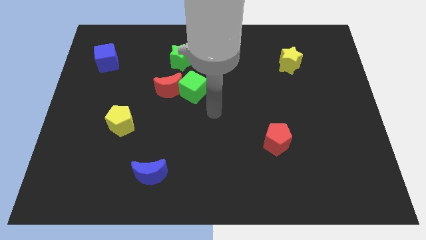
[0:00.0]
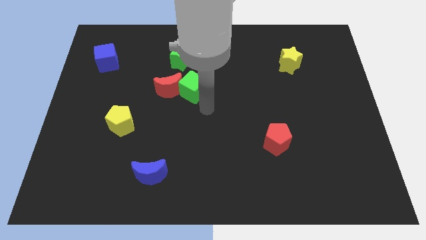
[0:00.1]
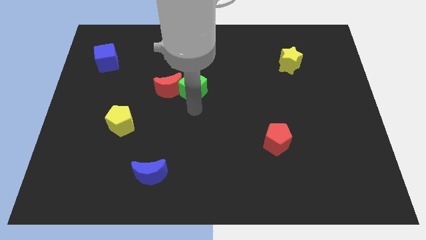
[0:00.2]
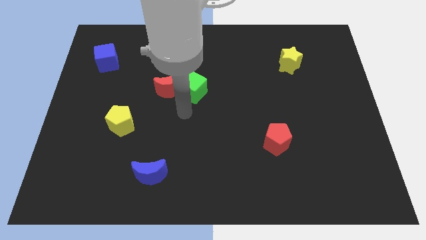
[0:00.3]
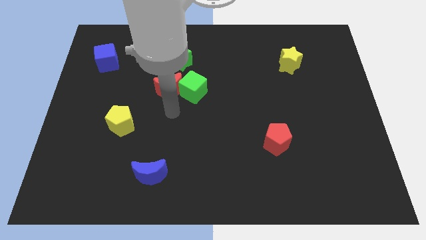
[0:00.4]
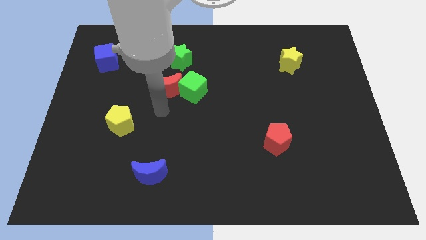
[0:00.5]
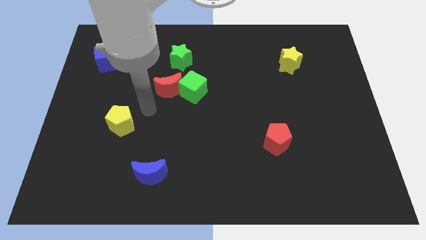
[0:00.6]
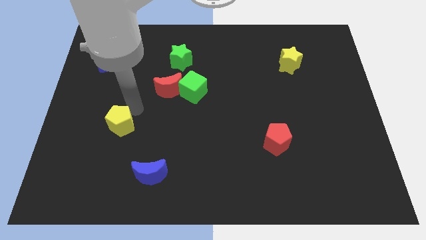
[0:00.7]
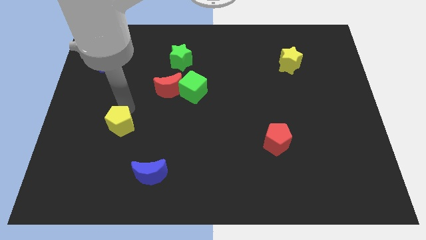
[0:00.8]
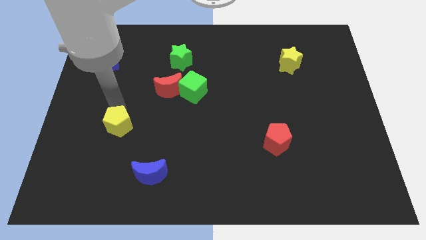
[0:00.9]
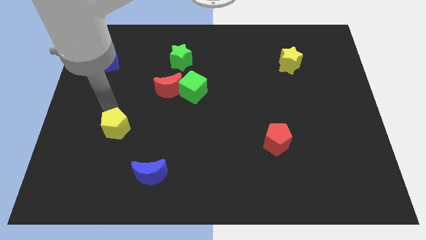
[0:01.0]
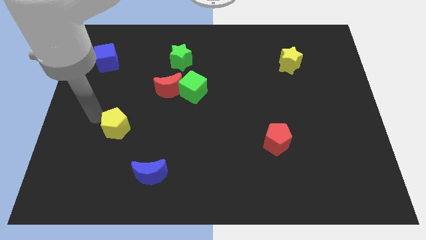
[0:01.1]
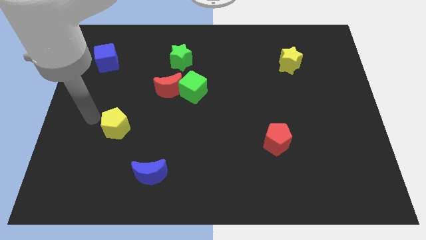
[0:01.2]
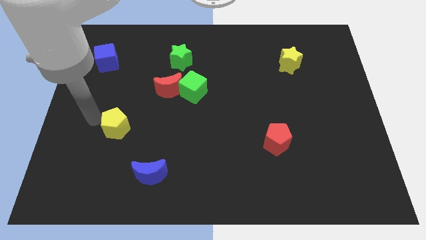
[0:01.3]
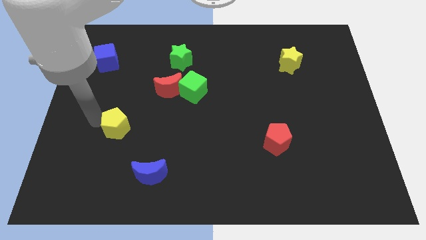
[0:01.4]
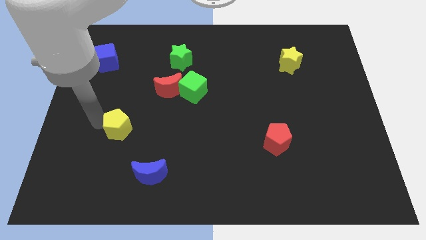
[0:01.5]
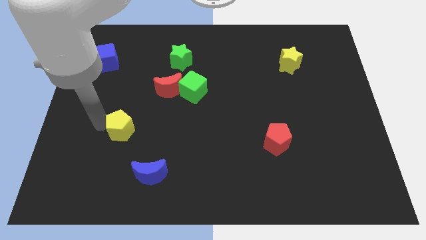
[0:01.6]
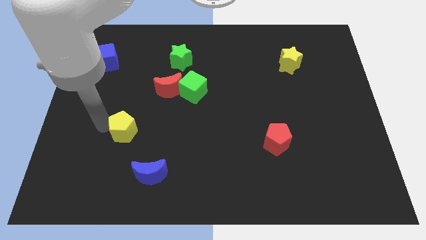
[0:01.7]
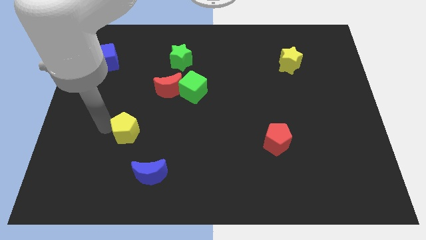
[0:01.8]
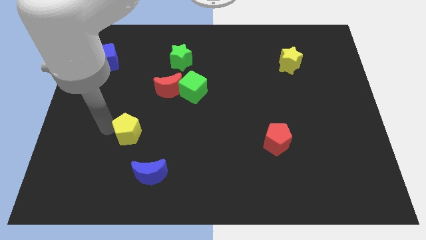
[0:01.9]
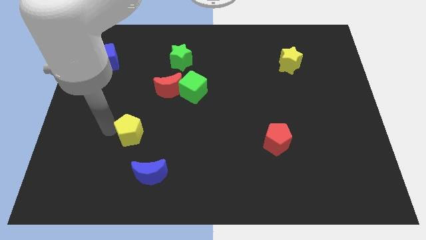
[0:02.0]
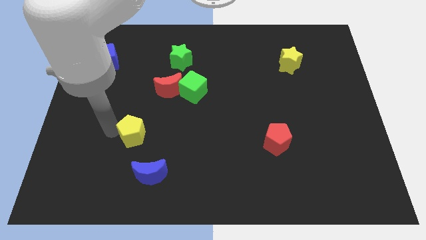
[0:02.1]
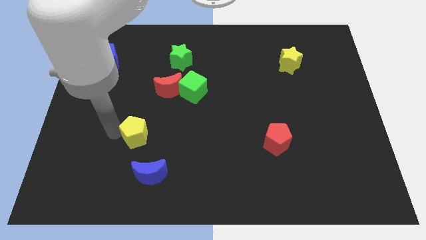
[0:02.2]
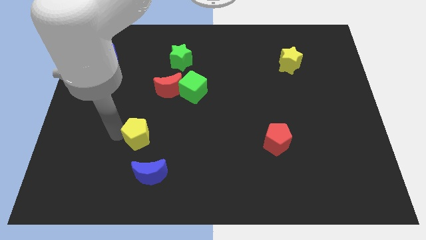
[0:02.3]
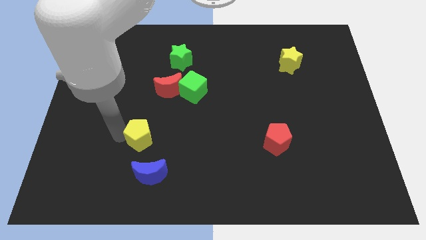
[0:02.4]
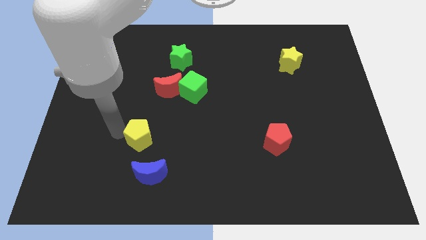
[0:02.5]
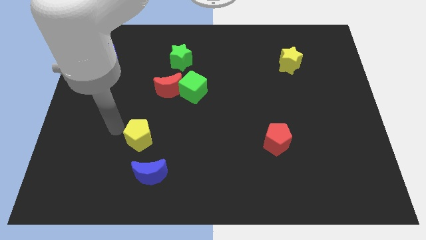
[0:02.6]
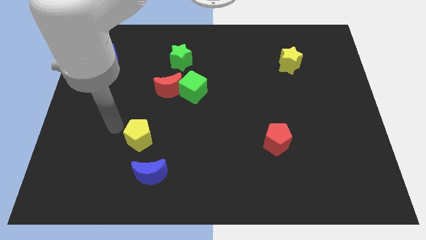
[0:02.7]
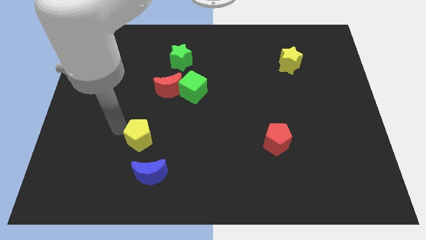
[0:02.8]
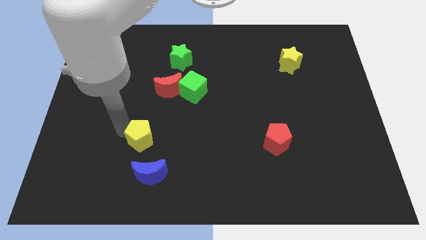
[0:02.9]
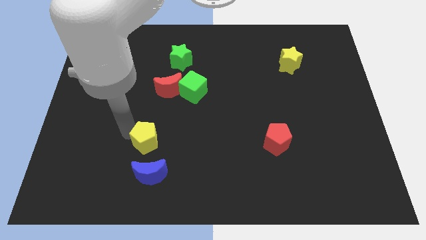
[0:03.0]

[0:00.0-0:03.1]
move the yellow pentagon down and to the right diagonally somewhat

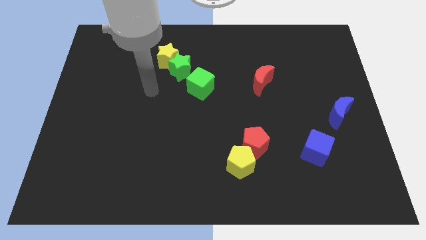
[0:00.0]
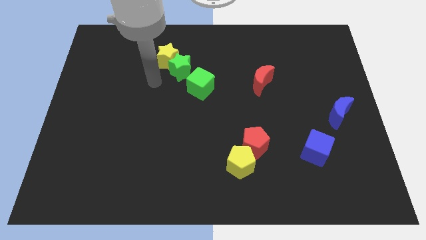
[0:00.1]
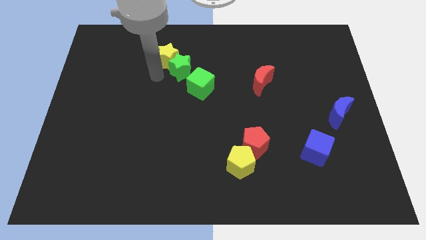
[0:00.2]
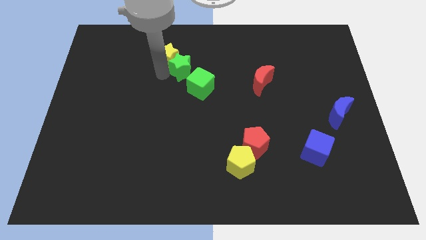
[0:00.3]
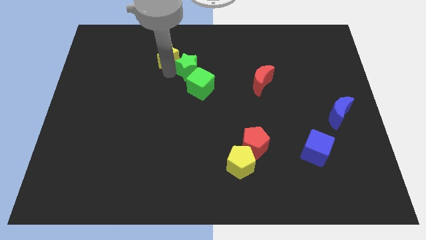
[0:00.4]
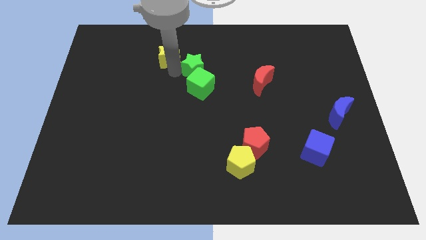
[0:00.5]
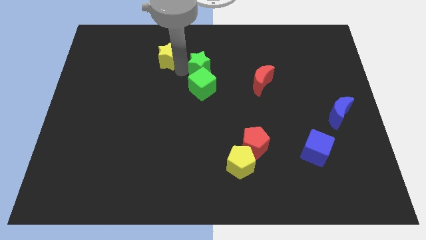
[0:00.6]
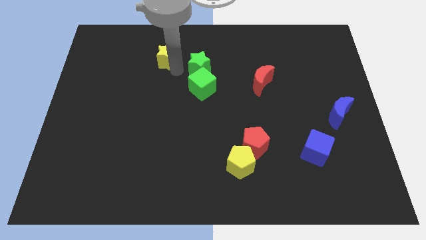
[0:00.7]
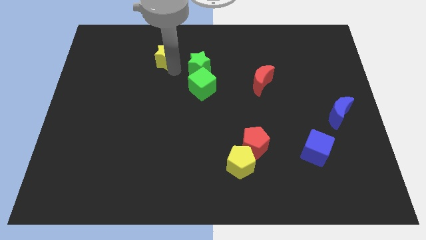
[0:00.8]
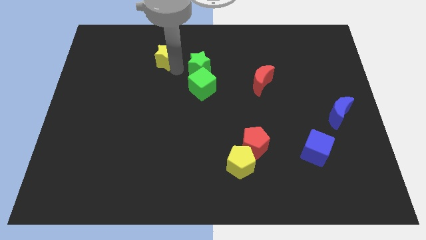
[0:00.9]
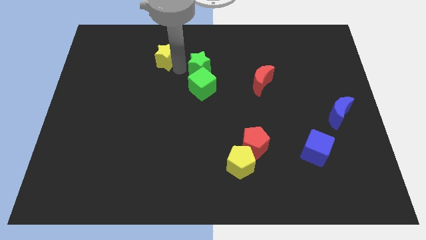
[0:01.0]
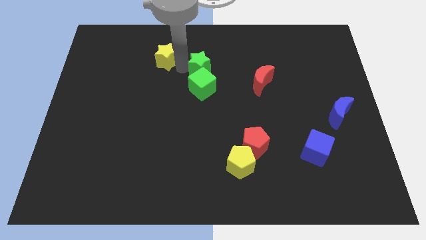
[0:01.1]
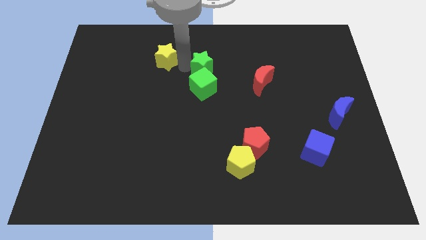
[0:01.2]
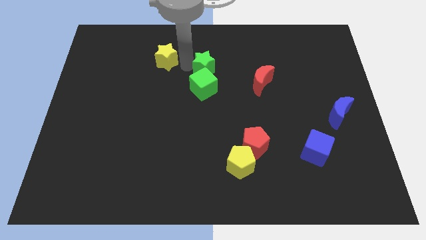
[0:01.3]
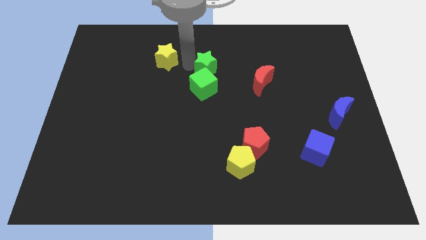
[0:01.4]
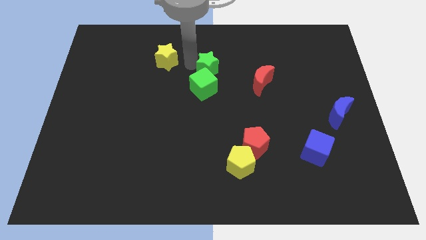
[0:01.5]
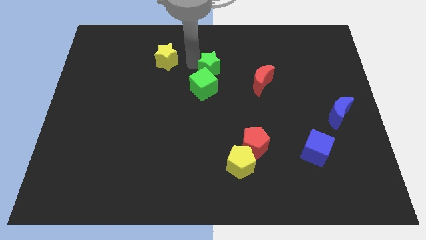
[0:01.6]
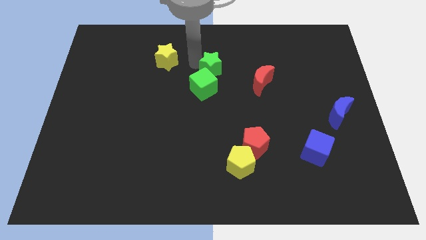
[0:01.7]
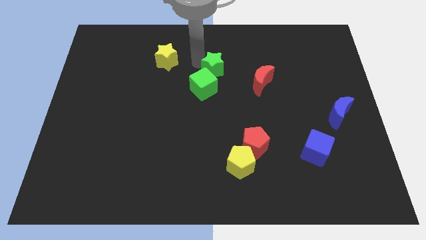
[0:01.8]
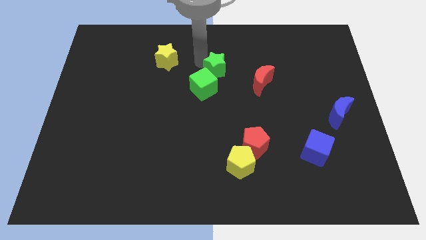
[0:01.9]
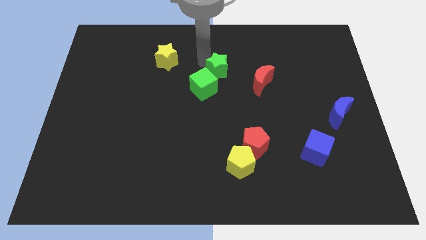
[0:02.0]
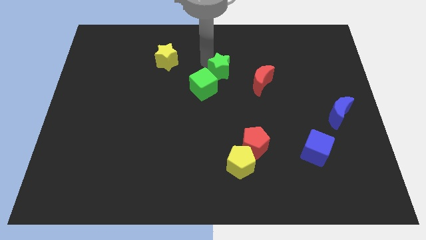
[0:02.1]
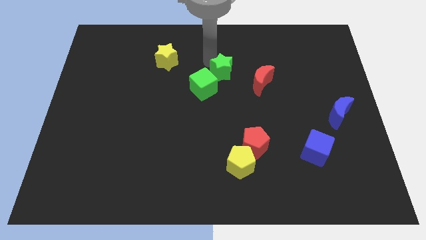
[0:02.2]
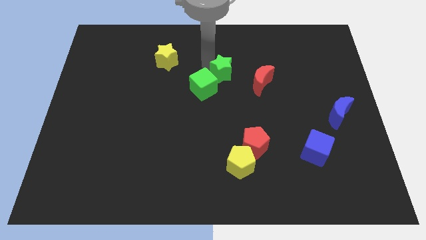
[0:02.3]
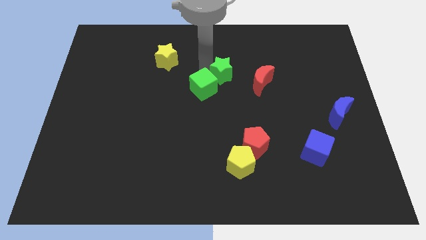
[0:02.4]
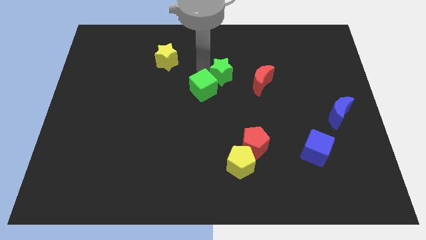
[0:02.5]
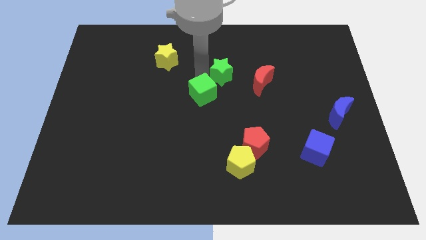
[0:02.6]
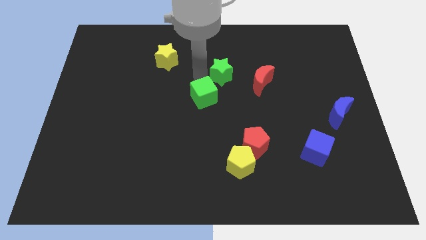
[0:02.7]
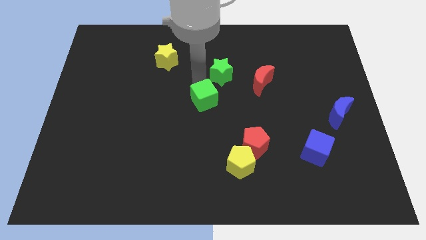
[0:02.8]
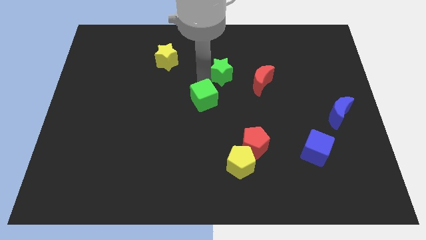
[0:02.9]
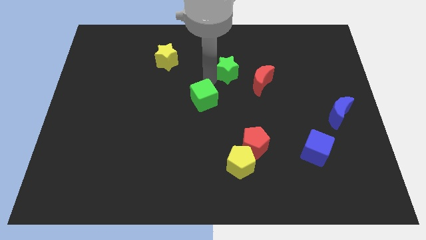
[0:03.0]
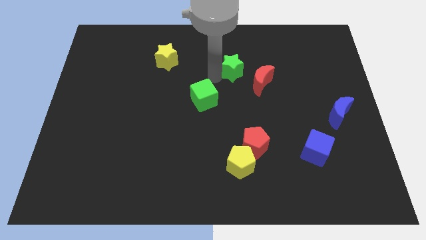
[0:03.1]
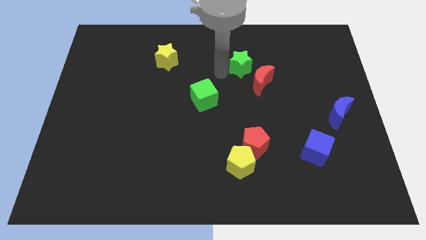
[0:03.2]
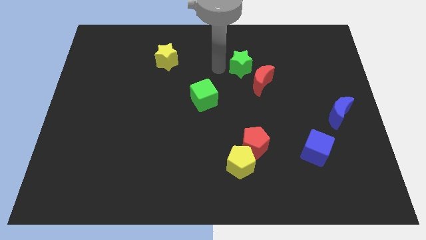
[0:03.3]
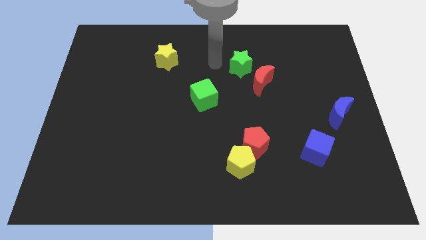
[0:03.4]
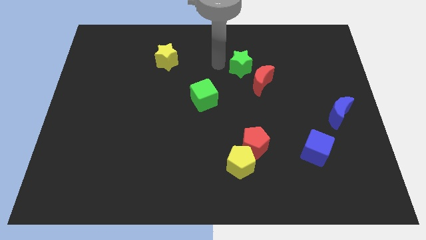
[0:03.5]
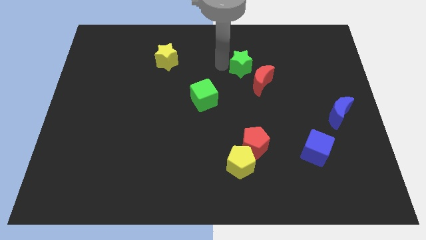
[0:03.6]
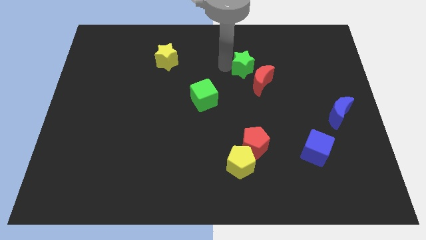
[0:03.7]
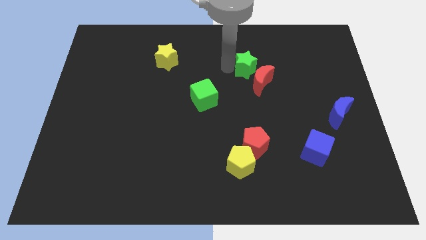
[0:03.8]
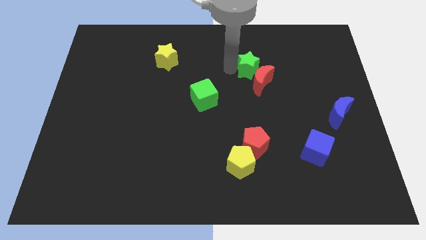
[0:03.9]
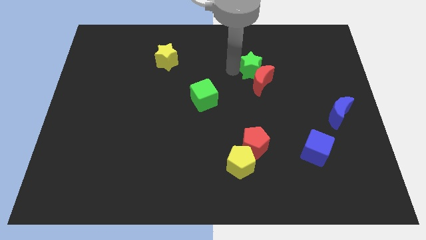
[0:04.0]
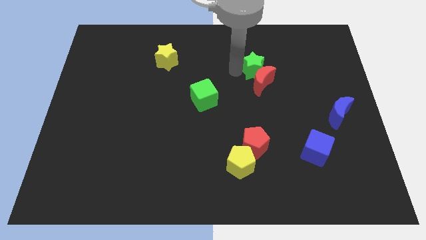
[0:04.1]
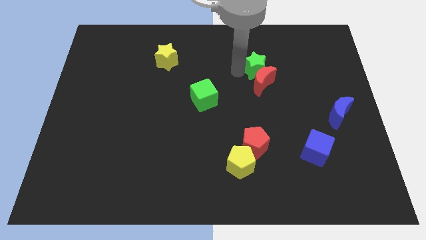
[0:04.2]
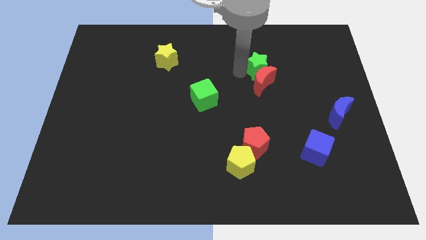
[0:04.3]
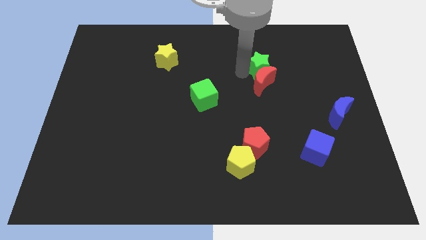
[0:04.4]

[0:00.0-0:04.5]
push the green star to the right

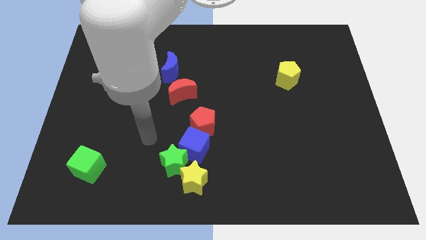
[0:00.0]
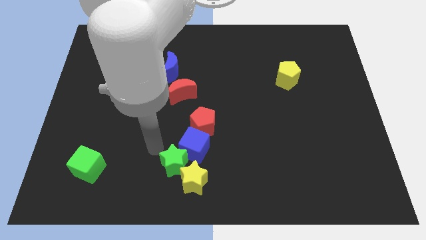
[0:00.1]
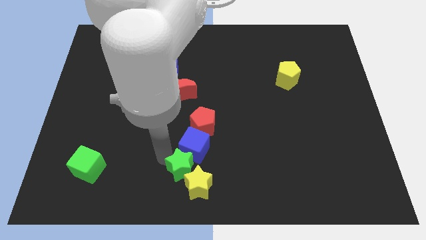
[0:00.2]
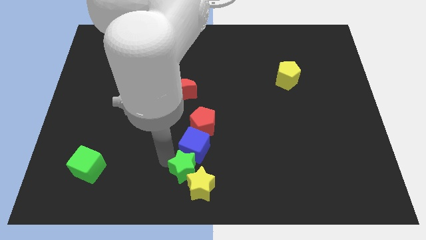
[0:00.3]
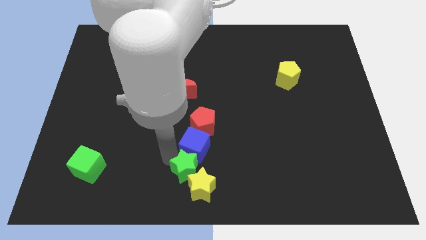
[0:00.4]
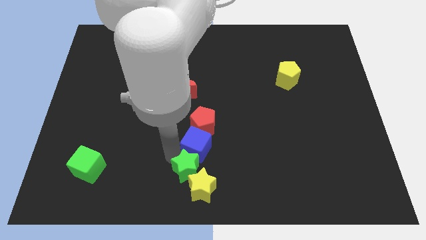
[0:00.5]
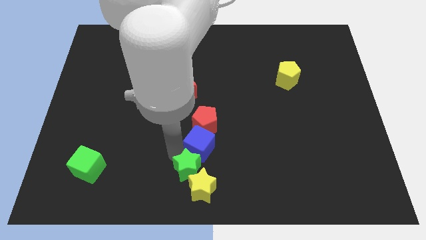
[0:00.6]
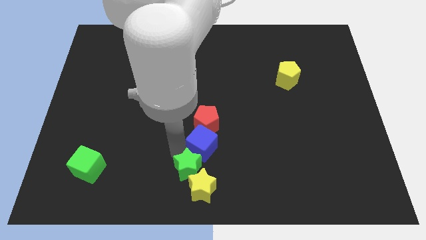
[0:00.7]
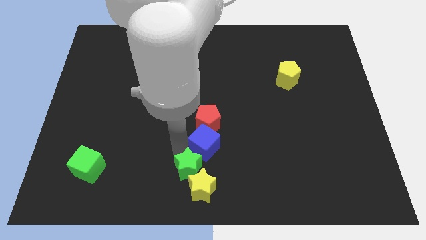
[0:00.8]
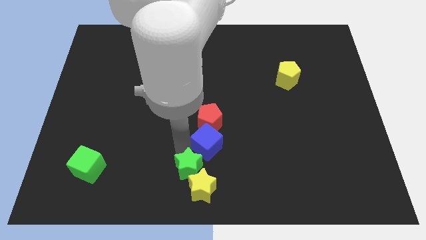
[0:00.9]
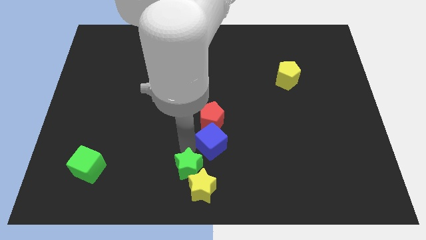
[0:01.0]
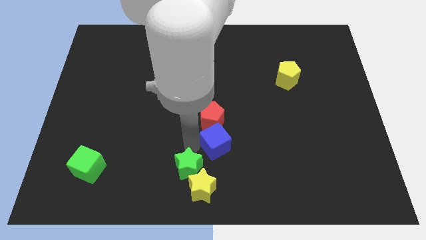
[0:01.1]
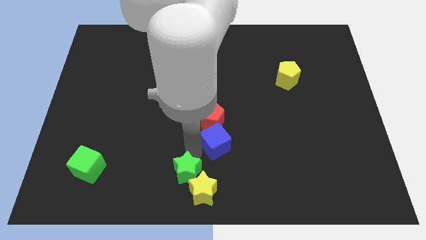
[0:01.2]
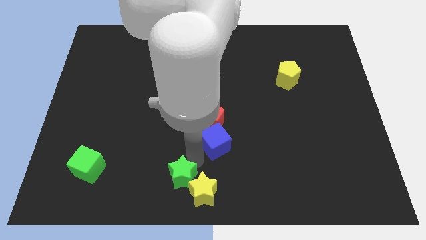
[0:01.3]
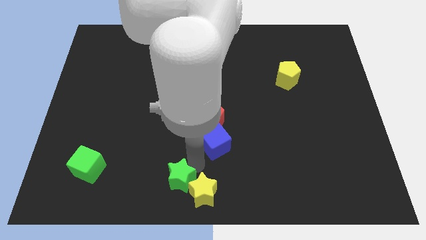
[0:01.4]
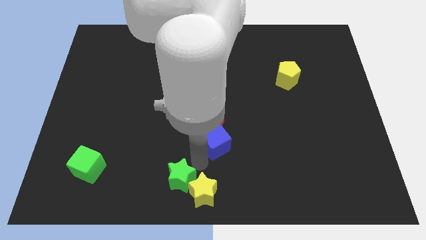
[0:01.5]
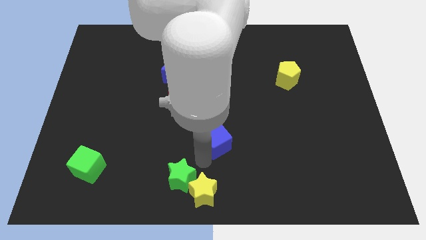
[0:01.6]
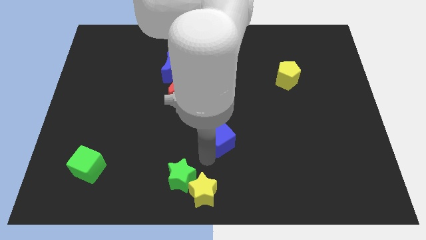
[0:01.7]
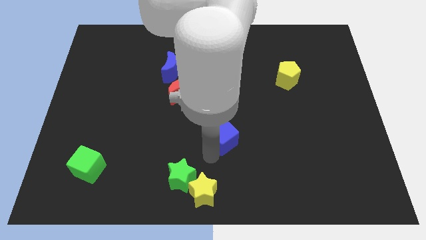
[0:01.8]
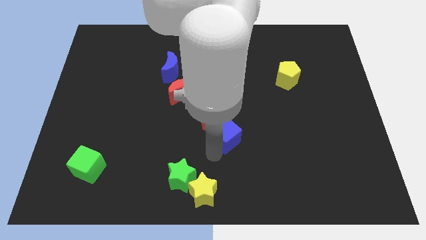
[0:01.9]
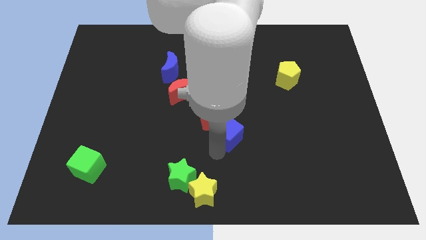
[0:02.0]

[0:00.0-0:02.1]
slightly slide the blue cube upwards and right
